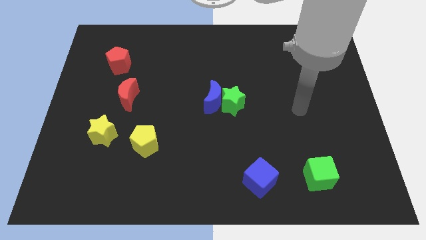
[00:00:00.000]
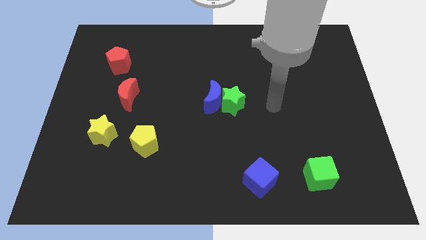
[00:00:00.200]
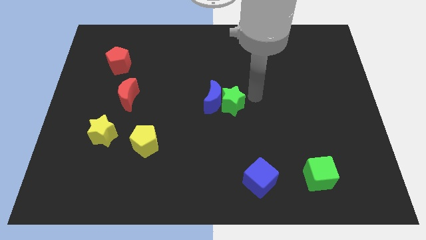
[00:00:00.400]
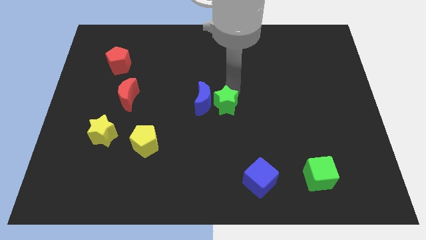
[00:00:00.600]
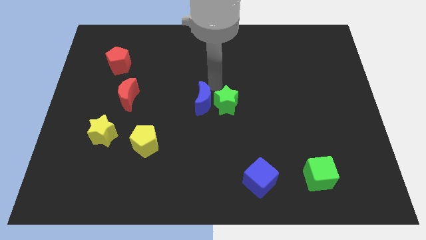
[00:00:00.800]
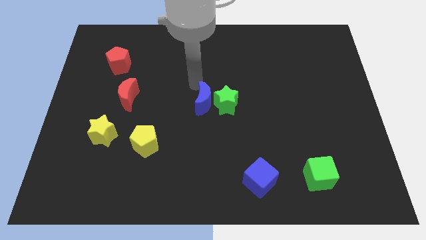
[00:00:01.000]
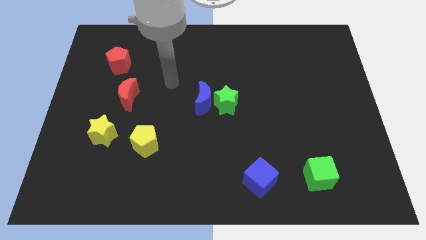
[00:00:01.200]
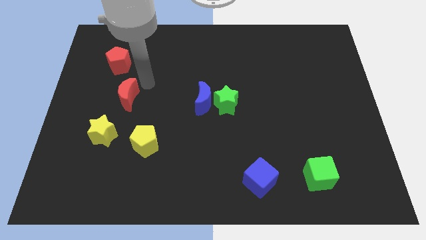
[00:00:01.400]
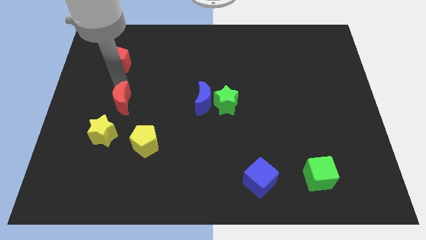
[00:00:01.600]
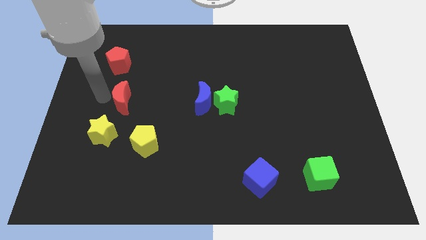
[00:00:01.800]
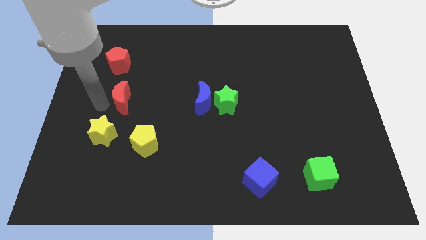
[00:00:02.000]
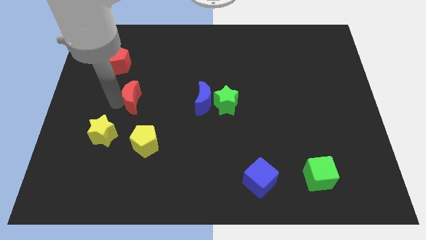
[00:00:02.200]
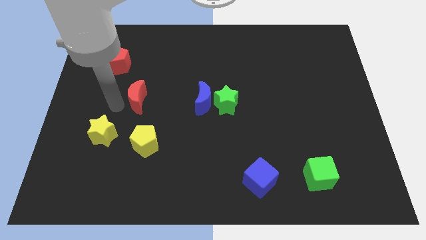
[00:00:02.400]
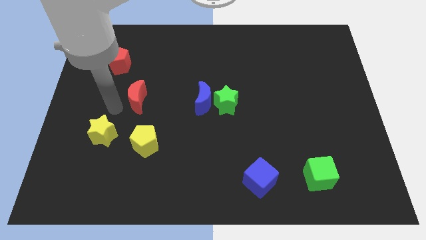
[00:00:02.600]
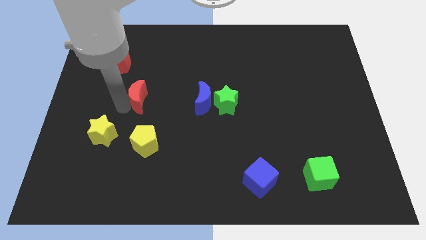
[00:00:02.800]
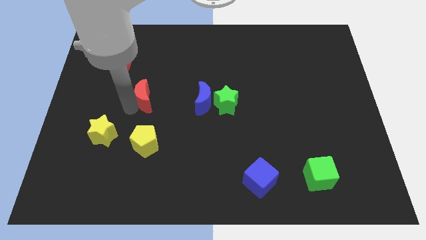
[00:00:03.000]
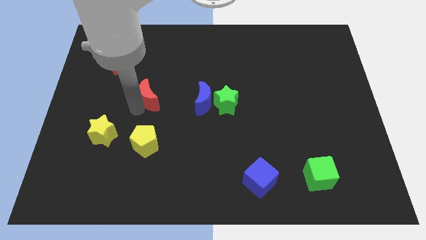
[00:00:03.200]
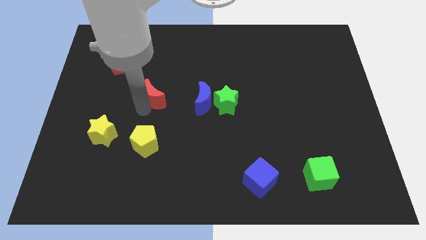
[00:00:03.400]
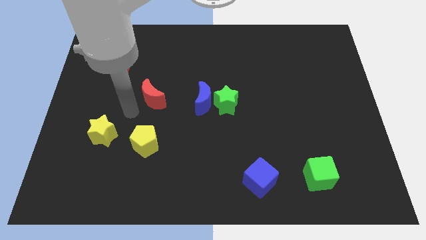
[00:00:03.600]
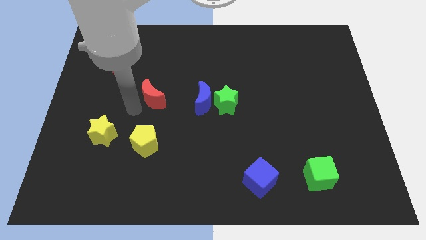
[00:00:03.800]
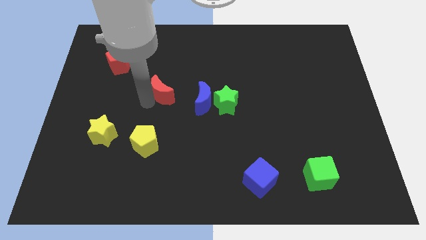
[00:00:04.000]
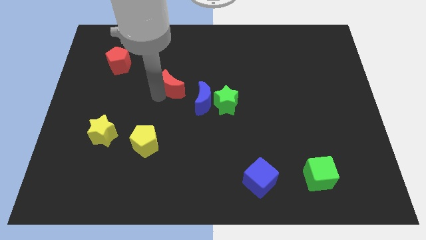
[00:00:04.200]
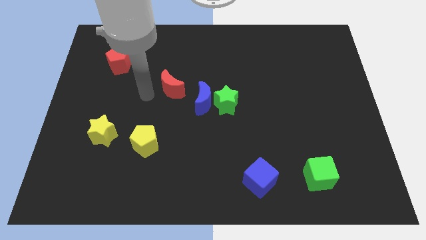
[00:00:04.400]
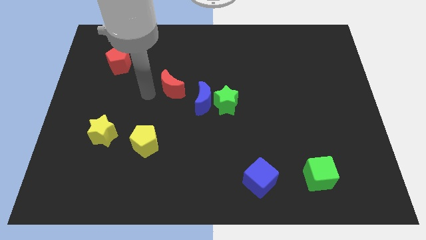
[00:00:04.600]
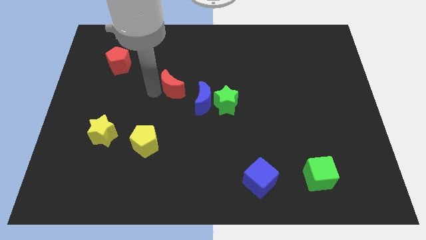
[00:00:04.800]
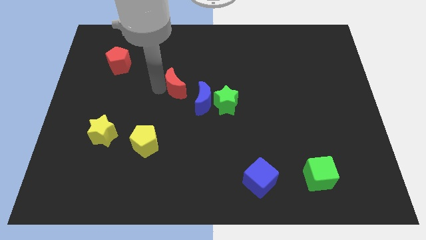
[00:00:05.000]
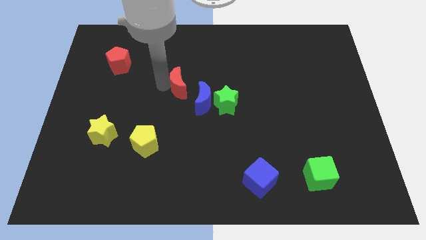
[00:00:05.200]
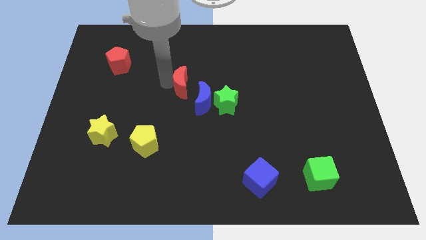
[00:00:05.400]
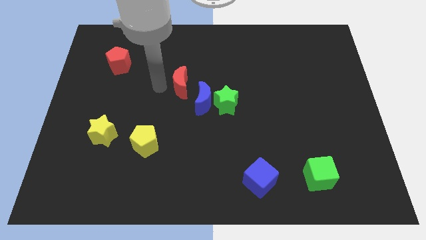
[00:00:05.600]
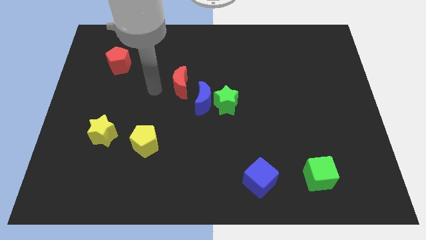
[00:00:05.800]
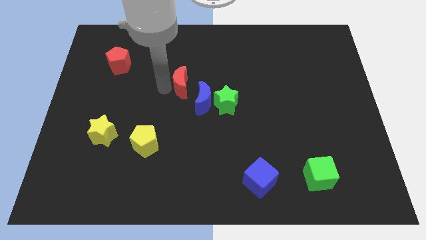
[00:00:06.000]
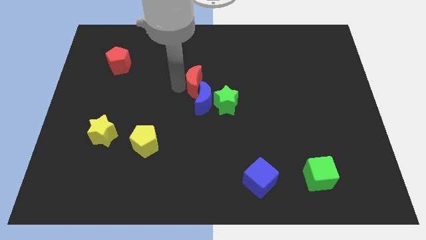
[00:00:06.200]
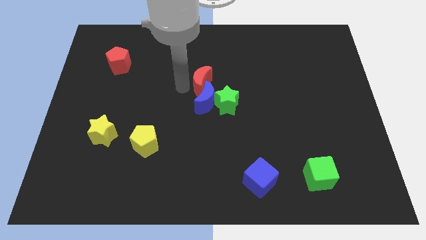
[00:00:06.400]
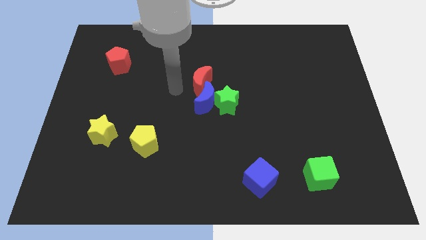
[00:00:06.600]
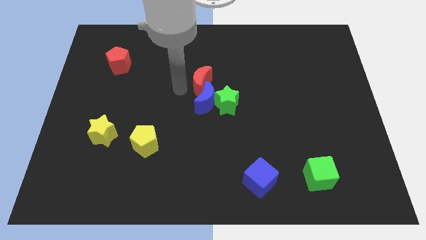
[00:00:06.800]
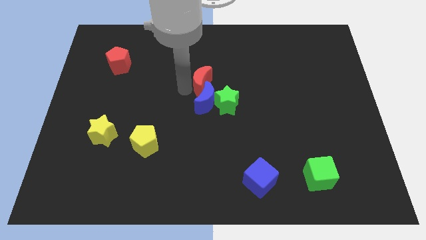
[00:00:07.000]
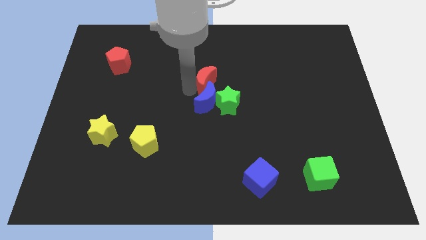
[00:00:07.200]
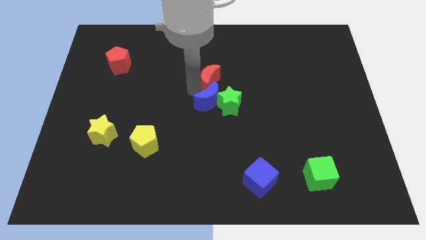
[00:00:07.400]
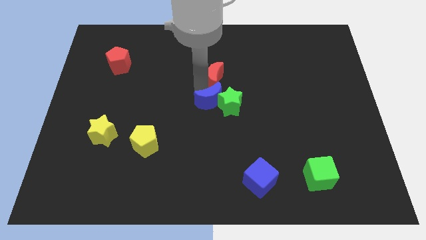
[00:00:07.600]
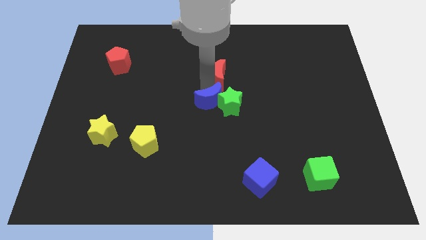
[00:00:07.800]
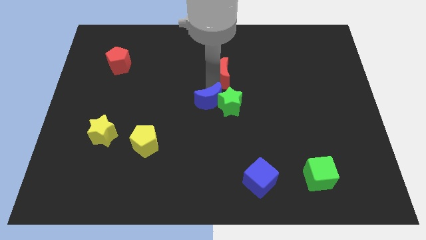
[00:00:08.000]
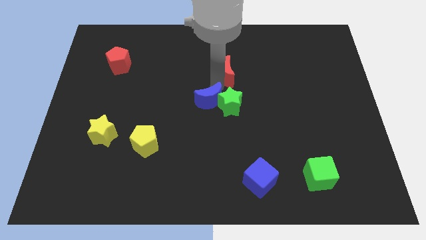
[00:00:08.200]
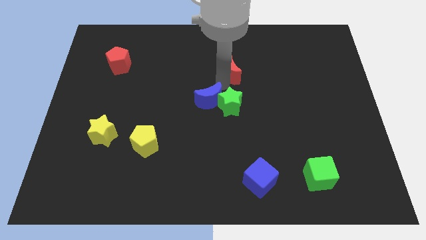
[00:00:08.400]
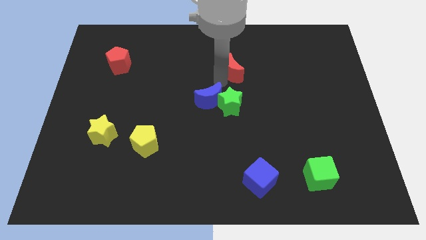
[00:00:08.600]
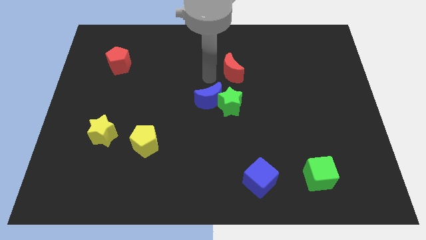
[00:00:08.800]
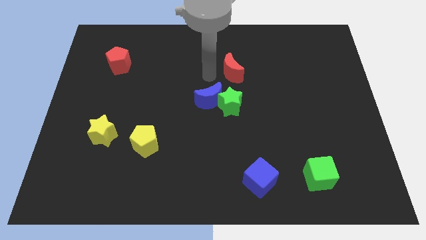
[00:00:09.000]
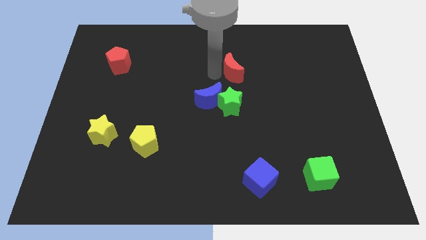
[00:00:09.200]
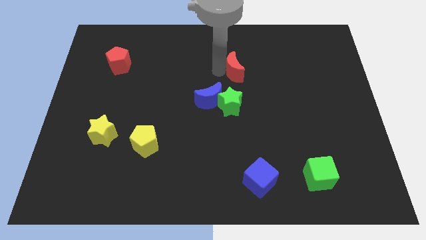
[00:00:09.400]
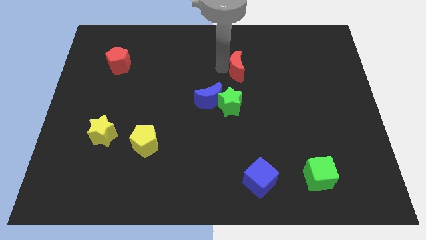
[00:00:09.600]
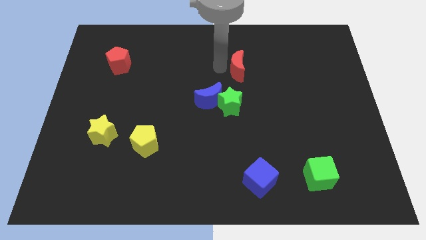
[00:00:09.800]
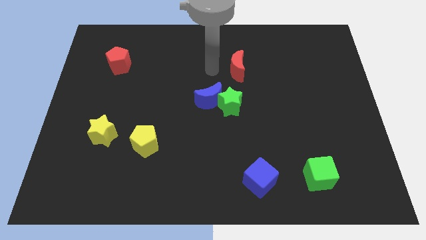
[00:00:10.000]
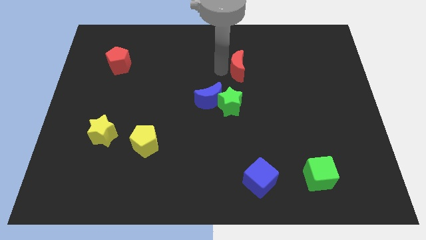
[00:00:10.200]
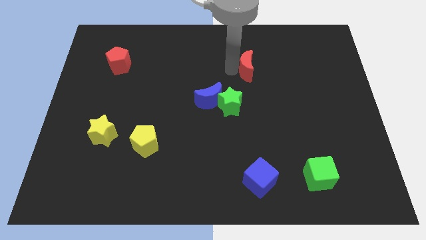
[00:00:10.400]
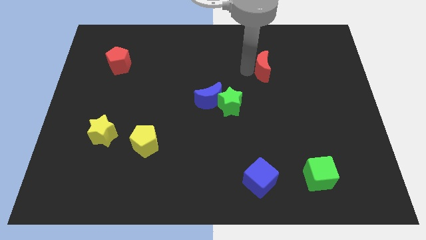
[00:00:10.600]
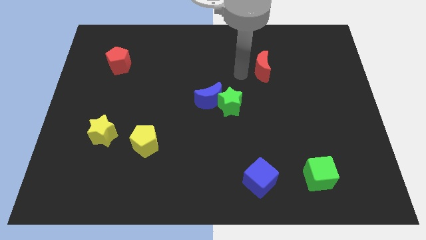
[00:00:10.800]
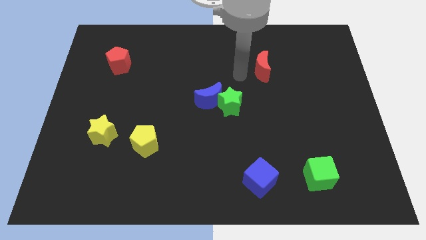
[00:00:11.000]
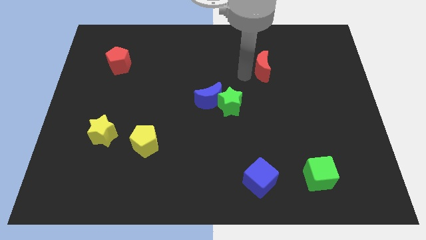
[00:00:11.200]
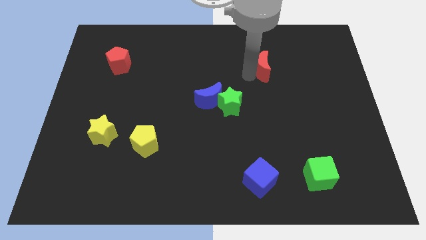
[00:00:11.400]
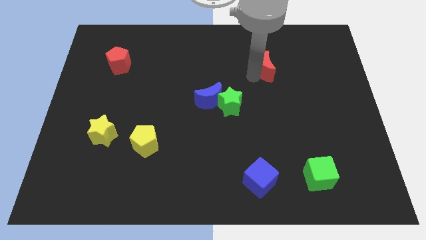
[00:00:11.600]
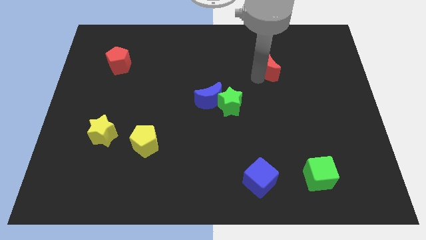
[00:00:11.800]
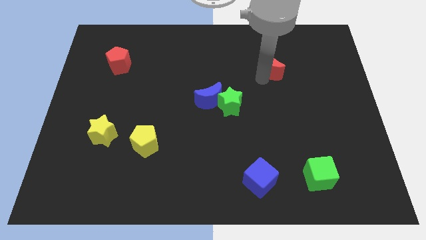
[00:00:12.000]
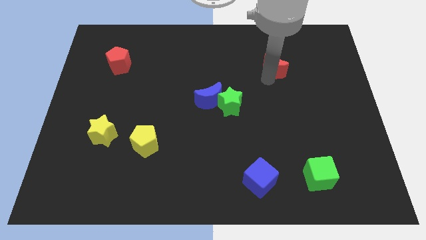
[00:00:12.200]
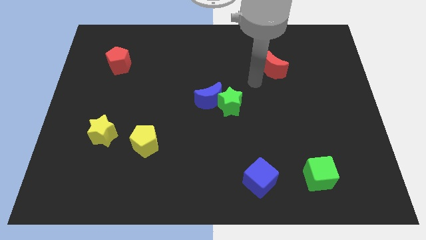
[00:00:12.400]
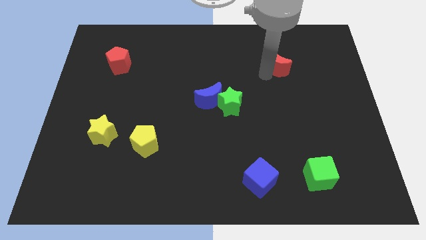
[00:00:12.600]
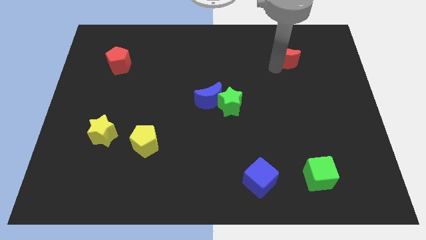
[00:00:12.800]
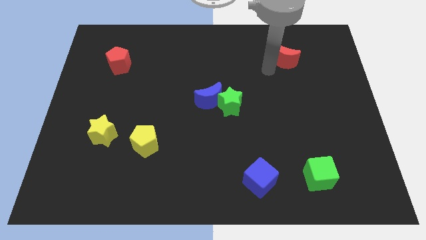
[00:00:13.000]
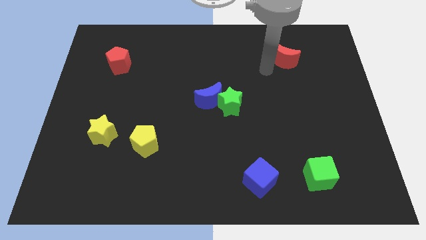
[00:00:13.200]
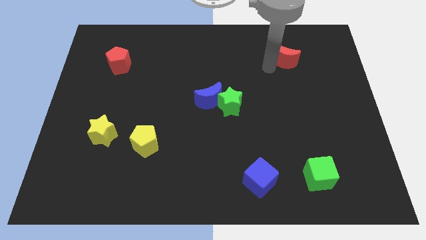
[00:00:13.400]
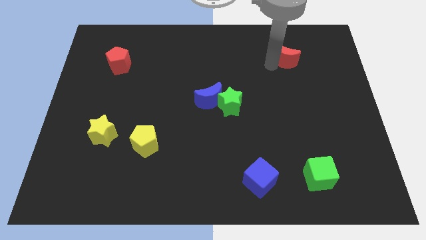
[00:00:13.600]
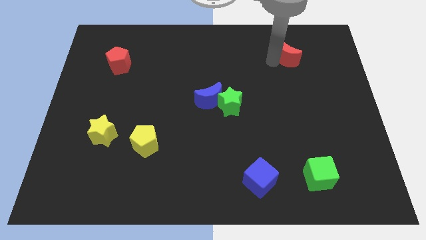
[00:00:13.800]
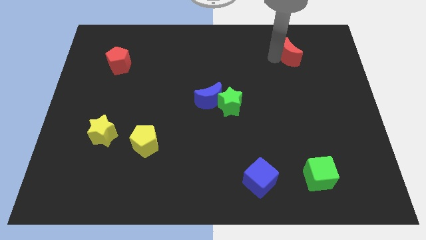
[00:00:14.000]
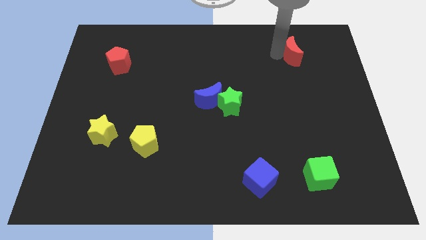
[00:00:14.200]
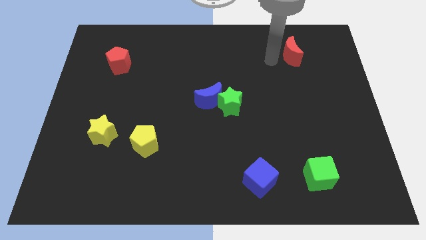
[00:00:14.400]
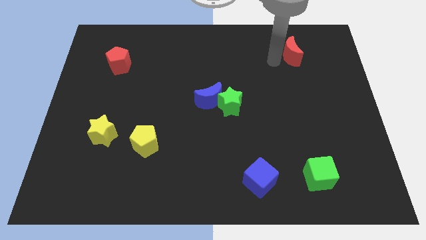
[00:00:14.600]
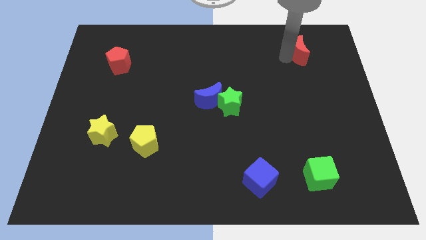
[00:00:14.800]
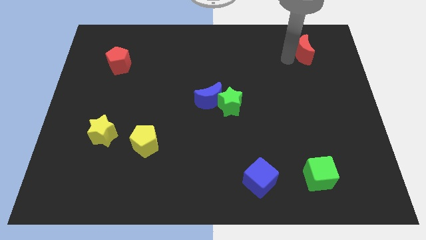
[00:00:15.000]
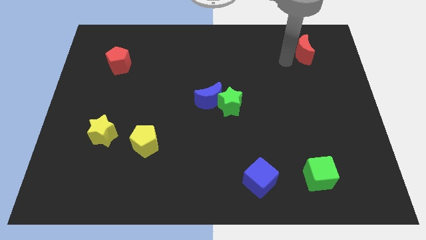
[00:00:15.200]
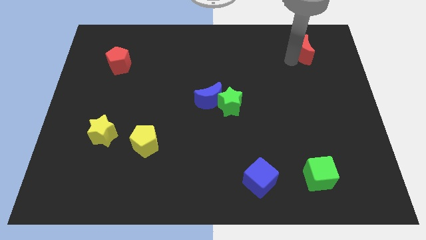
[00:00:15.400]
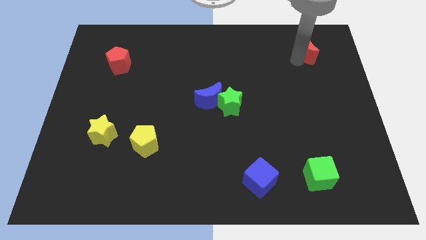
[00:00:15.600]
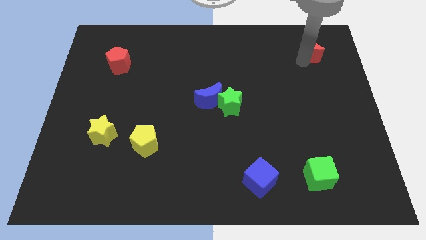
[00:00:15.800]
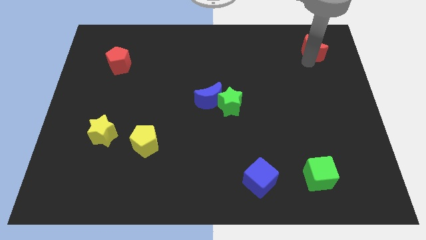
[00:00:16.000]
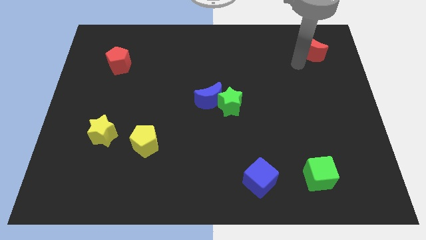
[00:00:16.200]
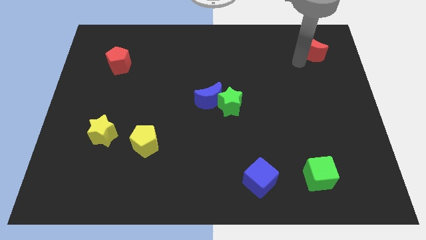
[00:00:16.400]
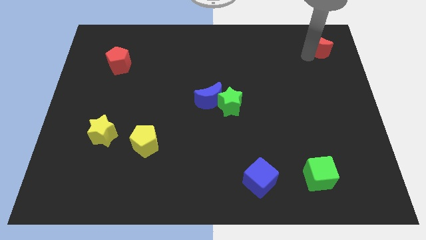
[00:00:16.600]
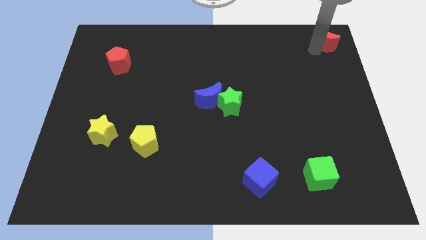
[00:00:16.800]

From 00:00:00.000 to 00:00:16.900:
move the red moon to the upper right corner
